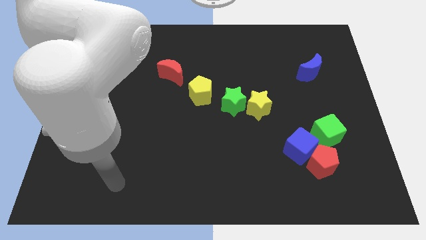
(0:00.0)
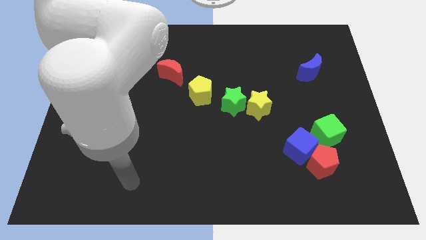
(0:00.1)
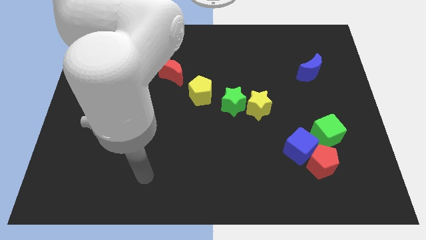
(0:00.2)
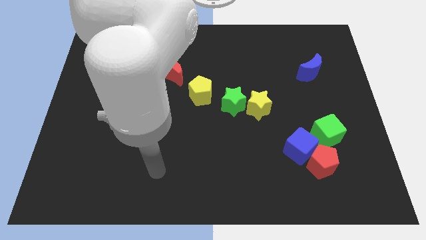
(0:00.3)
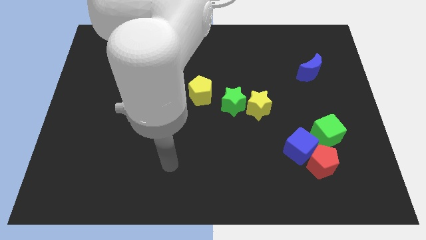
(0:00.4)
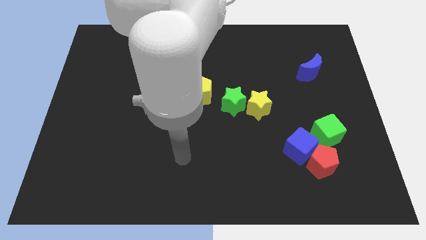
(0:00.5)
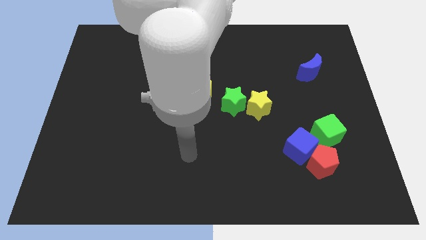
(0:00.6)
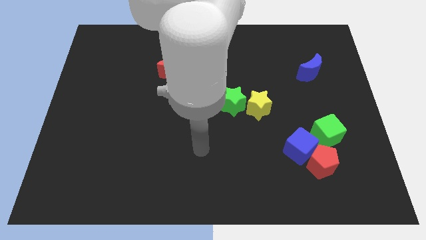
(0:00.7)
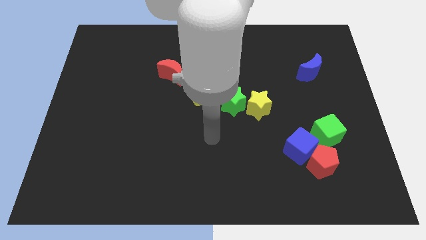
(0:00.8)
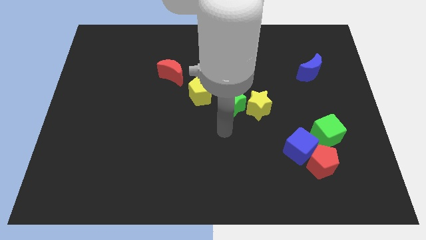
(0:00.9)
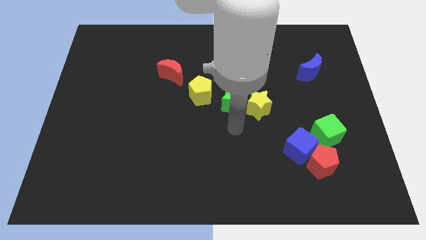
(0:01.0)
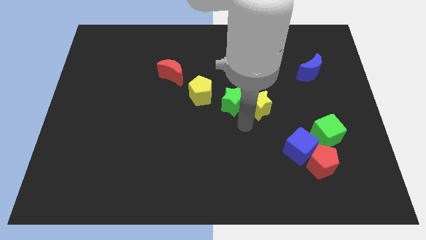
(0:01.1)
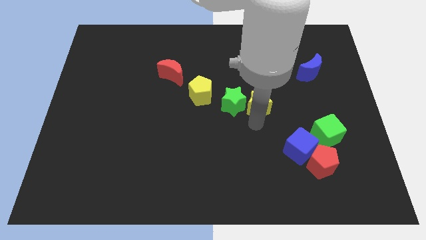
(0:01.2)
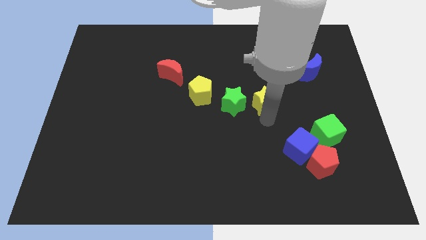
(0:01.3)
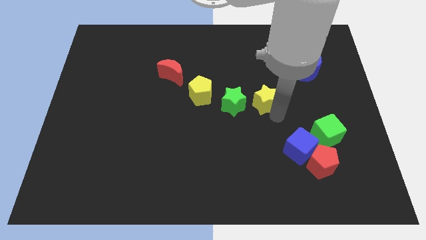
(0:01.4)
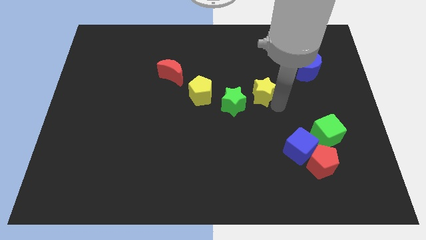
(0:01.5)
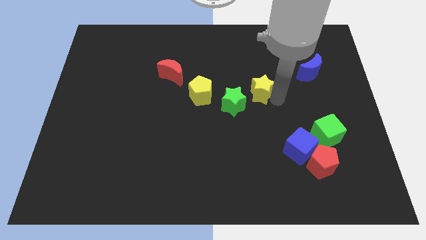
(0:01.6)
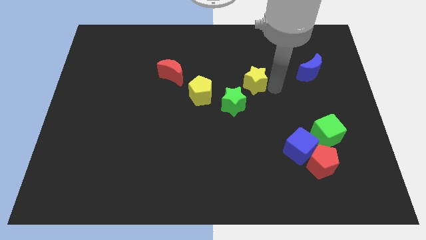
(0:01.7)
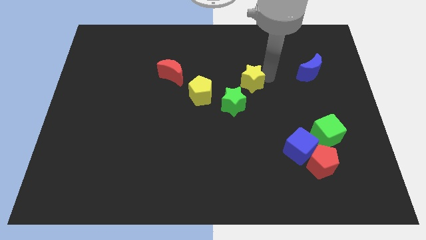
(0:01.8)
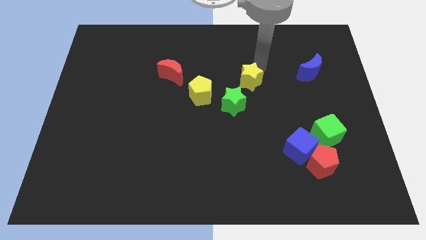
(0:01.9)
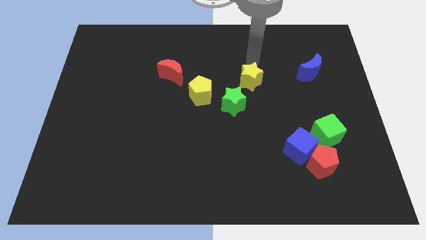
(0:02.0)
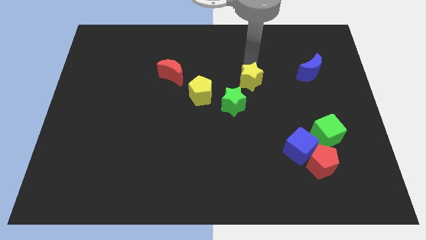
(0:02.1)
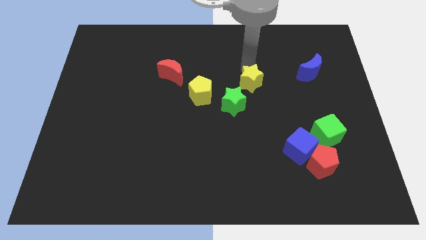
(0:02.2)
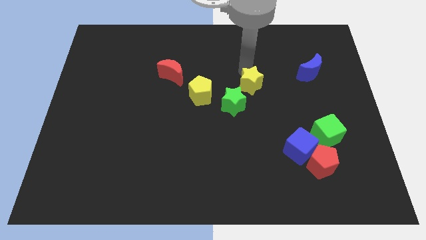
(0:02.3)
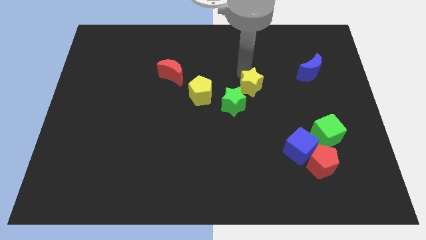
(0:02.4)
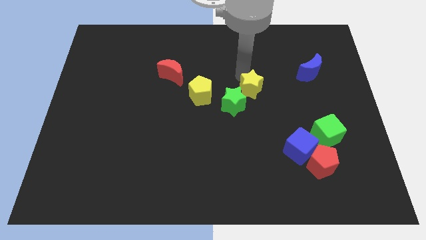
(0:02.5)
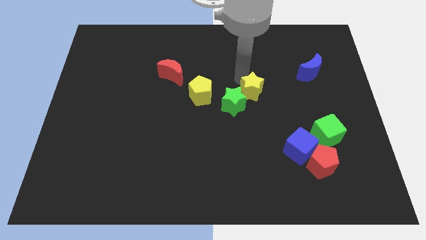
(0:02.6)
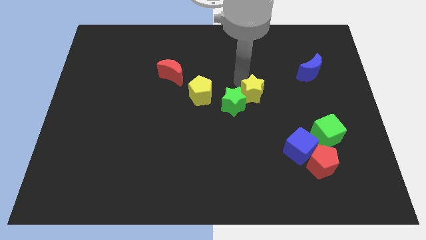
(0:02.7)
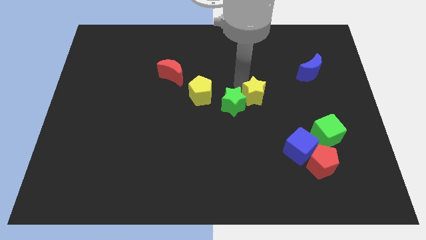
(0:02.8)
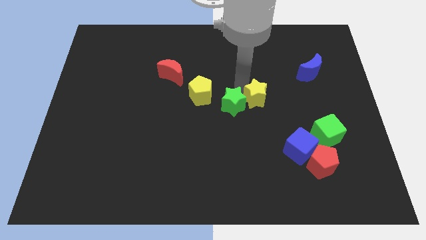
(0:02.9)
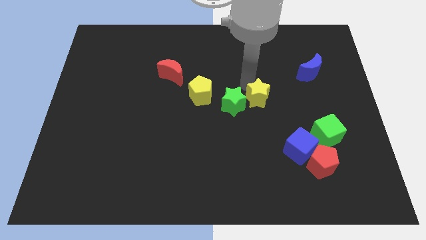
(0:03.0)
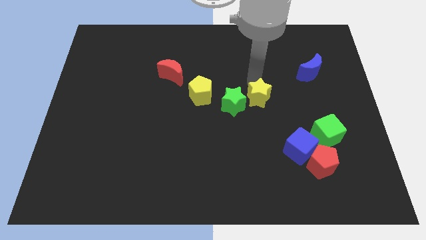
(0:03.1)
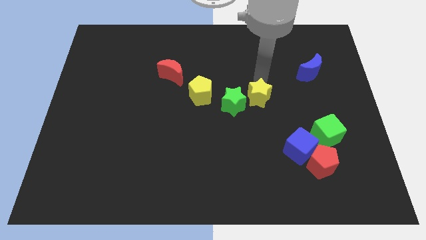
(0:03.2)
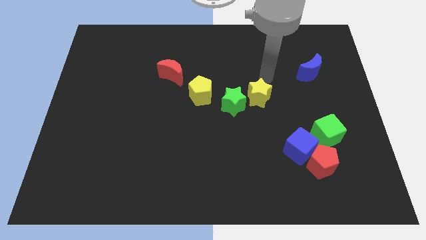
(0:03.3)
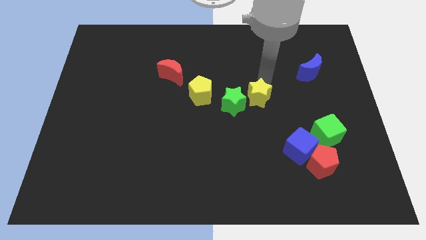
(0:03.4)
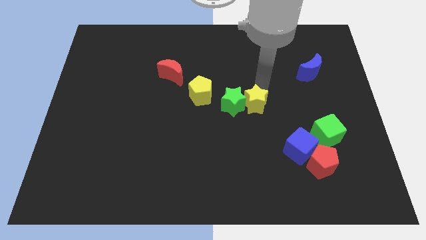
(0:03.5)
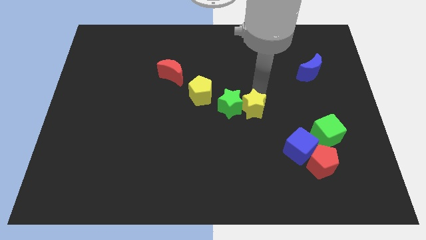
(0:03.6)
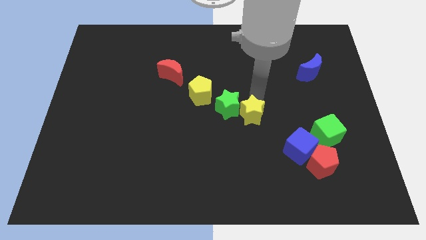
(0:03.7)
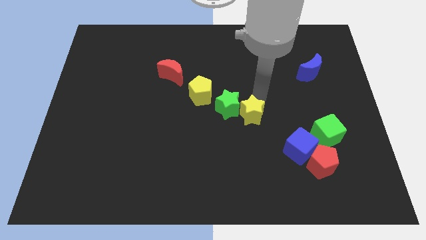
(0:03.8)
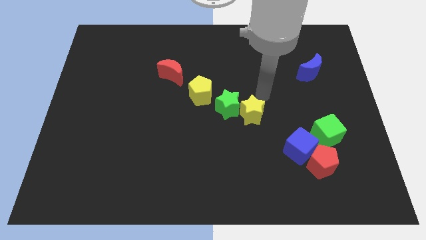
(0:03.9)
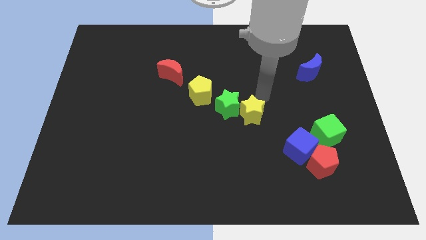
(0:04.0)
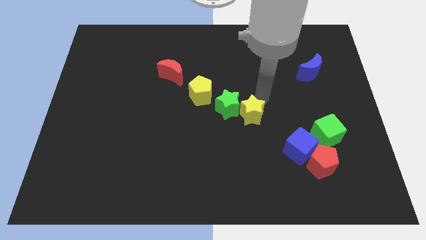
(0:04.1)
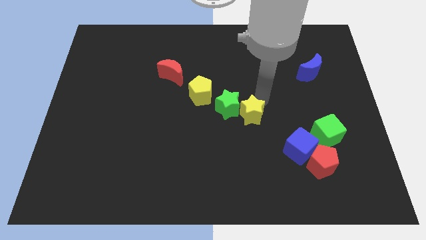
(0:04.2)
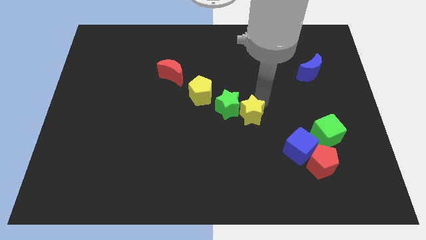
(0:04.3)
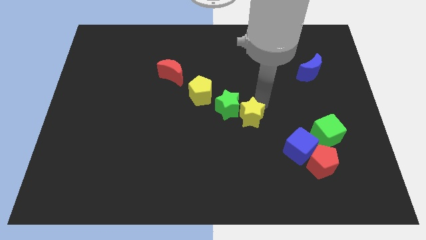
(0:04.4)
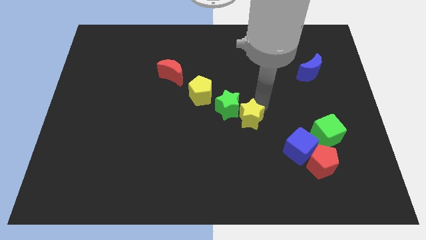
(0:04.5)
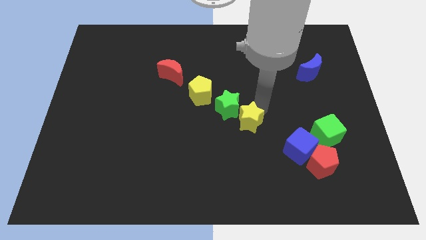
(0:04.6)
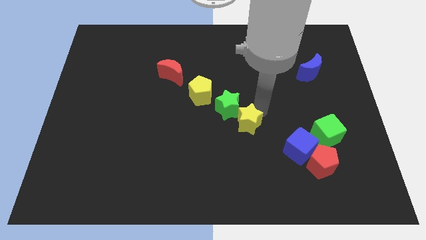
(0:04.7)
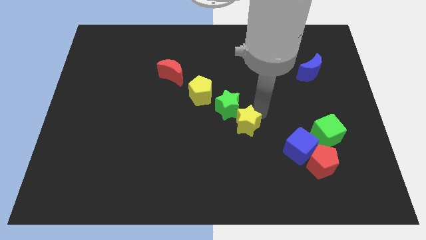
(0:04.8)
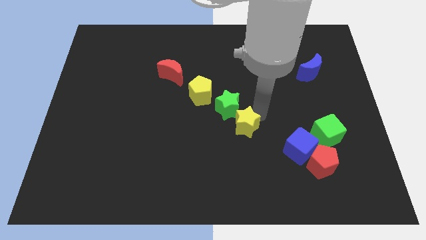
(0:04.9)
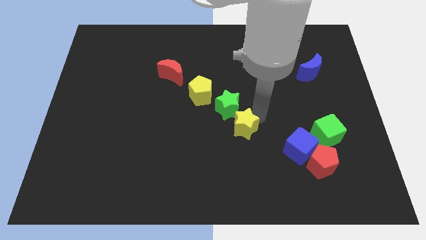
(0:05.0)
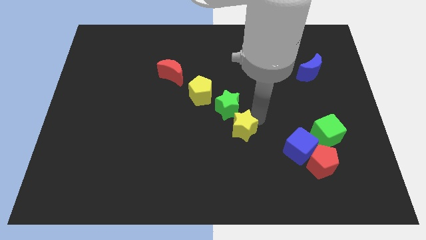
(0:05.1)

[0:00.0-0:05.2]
slightly move the yellow star downwards and left diagonally

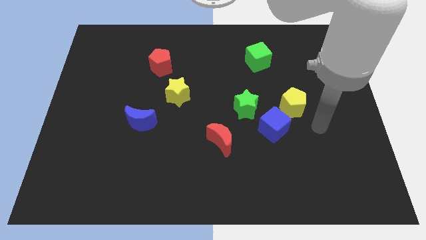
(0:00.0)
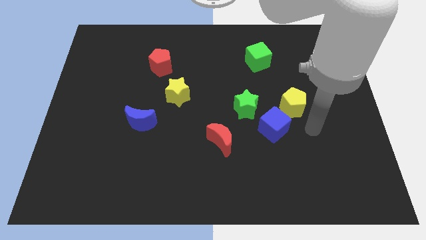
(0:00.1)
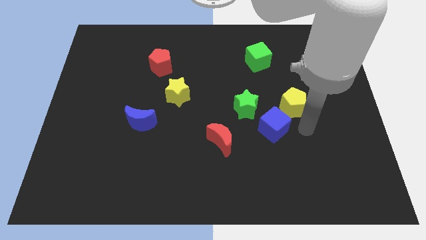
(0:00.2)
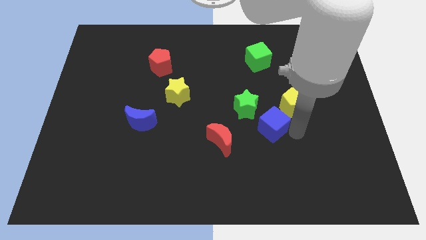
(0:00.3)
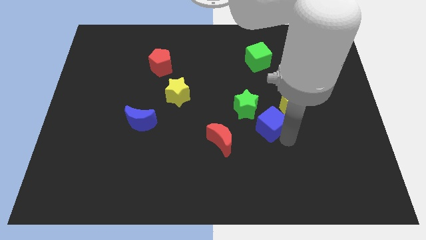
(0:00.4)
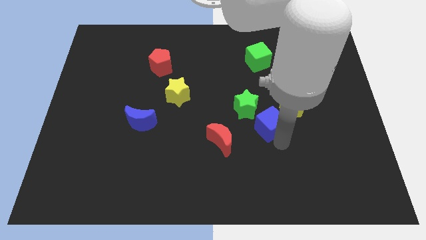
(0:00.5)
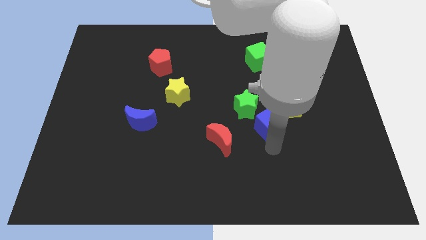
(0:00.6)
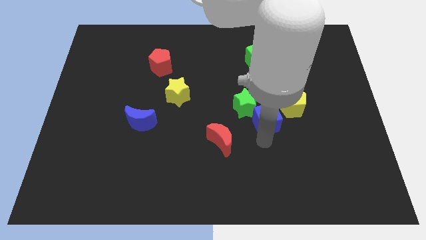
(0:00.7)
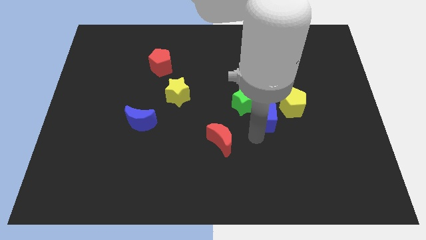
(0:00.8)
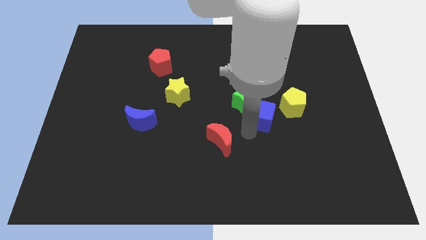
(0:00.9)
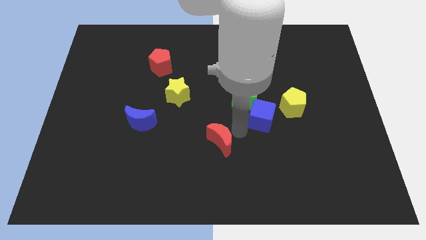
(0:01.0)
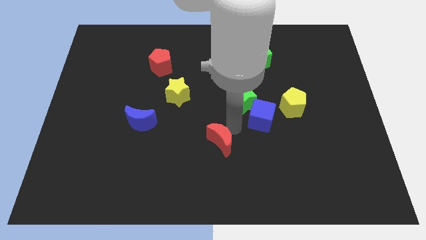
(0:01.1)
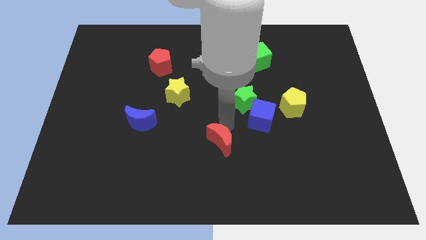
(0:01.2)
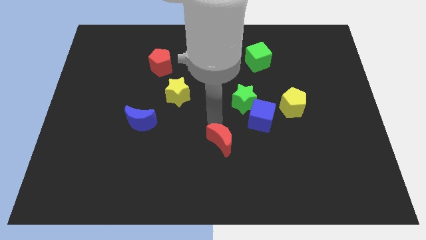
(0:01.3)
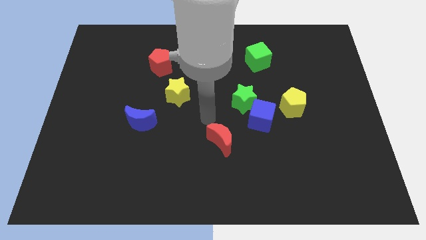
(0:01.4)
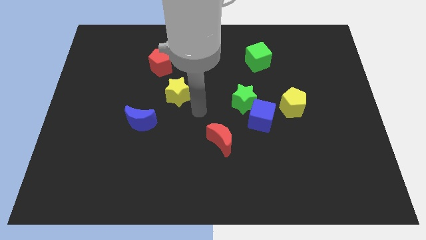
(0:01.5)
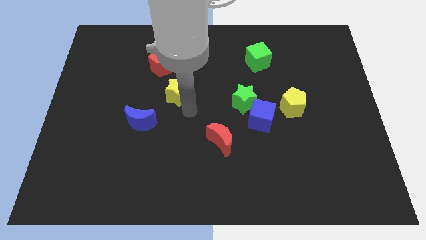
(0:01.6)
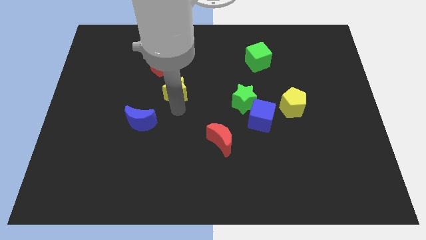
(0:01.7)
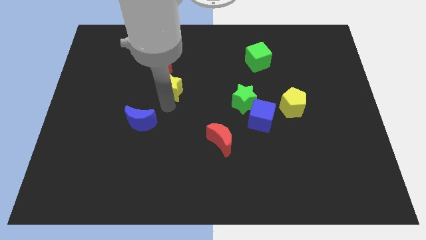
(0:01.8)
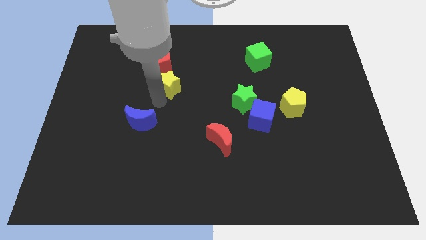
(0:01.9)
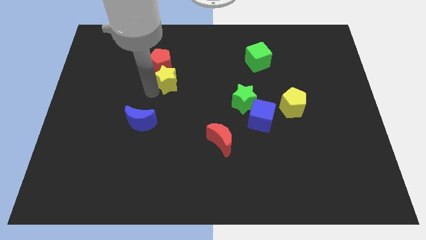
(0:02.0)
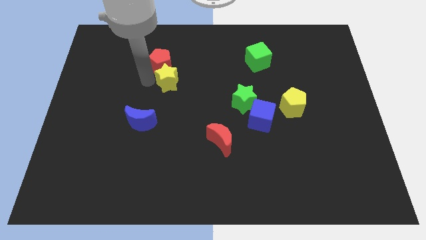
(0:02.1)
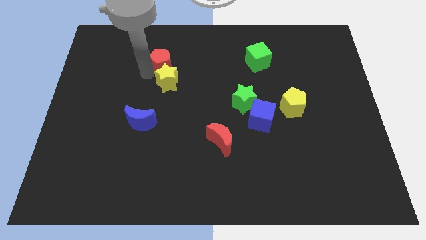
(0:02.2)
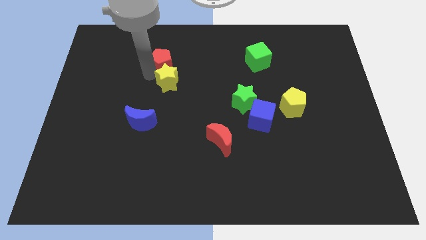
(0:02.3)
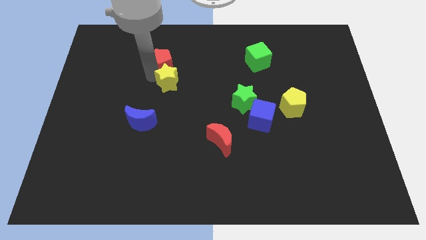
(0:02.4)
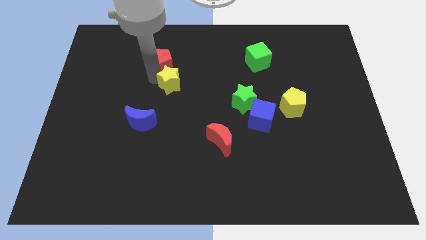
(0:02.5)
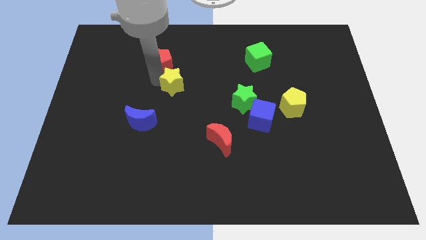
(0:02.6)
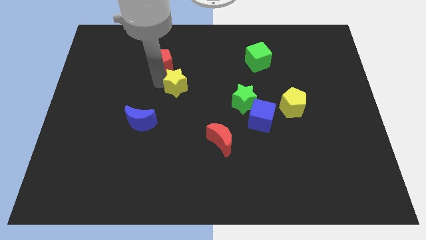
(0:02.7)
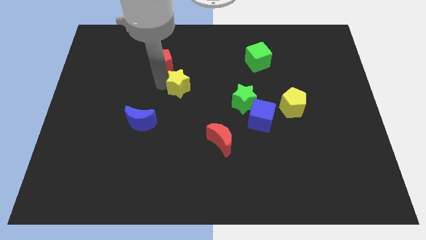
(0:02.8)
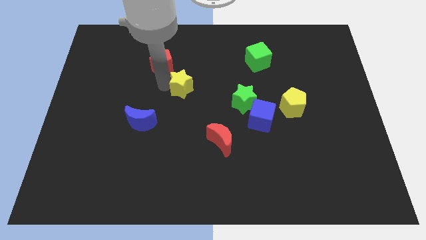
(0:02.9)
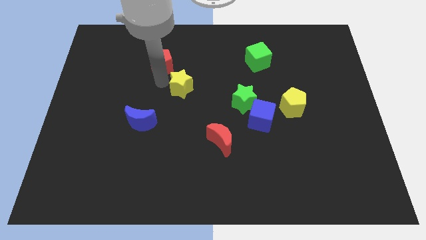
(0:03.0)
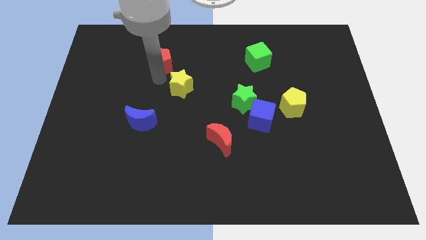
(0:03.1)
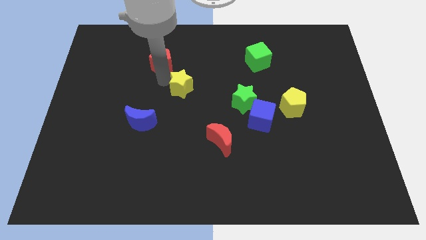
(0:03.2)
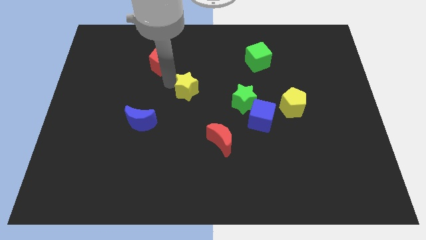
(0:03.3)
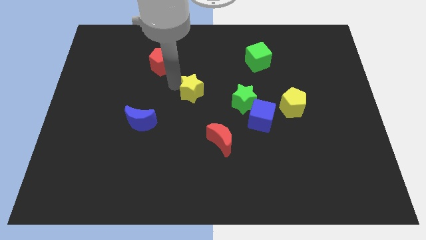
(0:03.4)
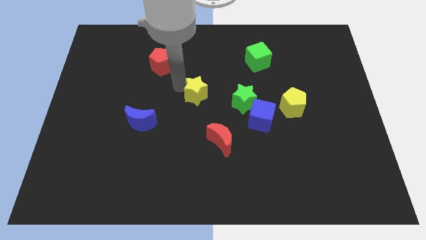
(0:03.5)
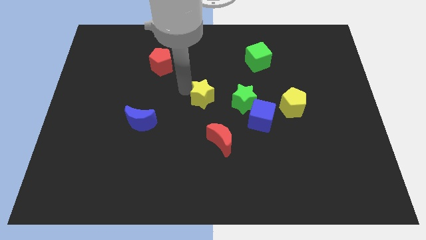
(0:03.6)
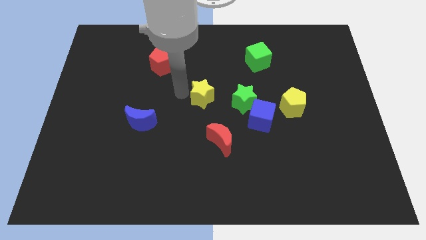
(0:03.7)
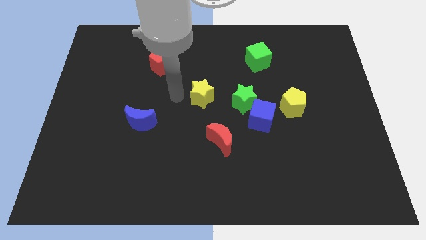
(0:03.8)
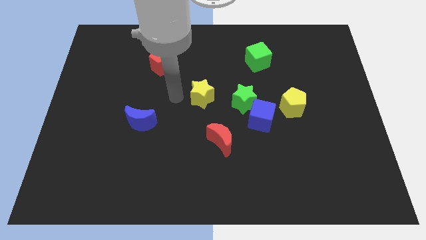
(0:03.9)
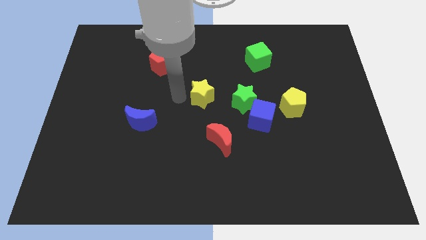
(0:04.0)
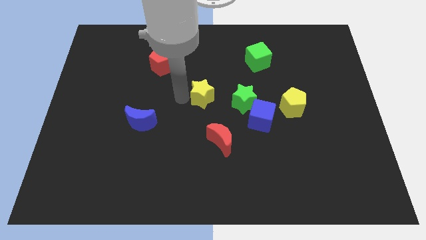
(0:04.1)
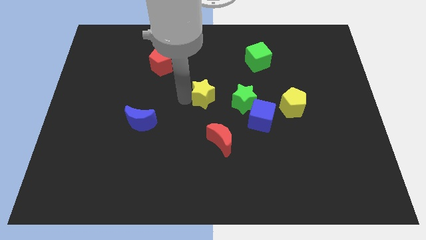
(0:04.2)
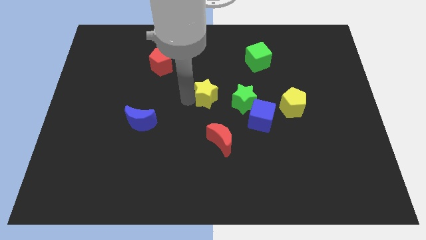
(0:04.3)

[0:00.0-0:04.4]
slide the yellow star to the right a little
